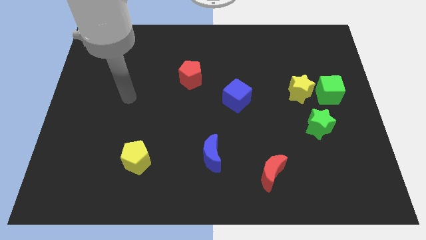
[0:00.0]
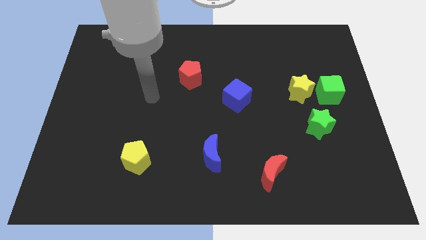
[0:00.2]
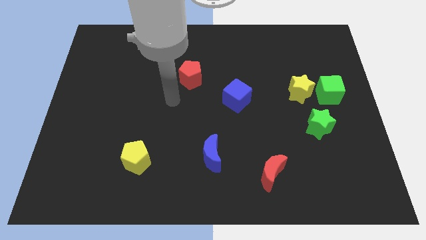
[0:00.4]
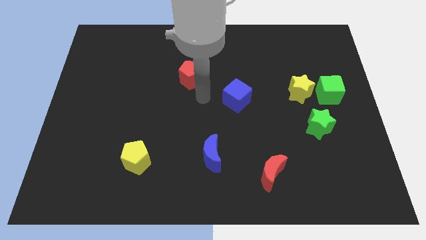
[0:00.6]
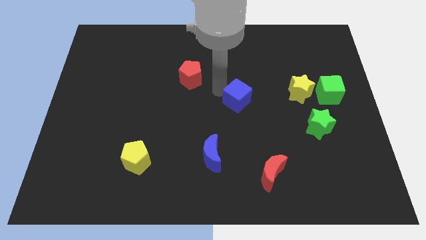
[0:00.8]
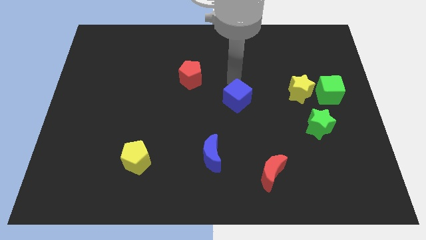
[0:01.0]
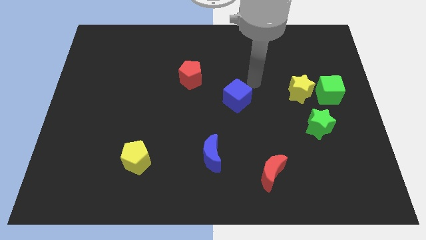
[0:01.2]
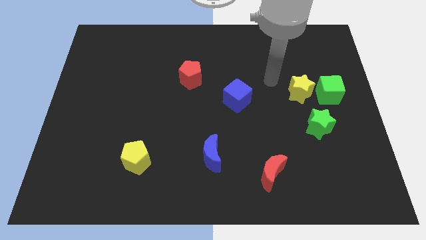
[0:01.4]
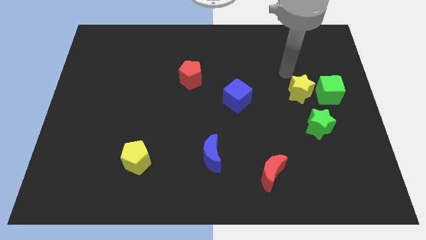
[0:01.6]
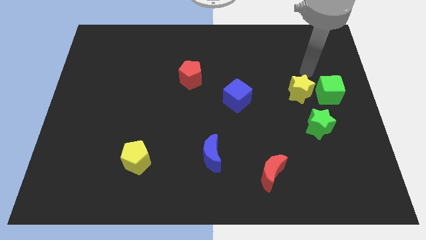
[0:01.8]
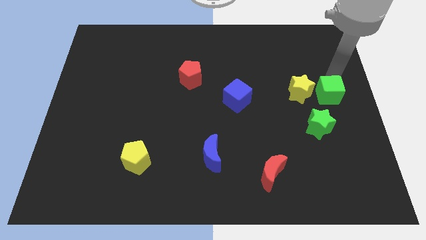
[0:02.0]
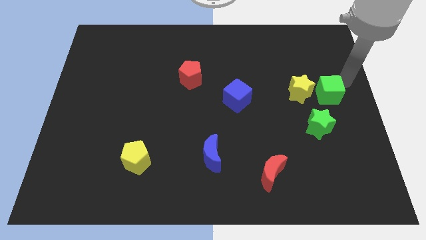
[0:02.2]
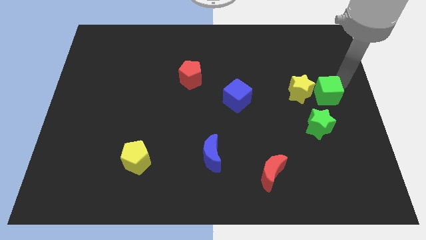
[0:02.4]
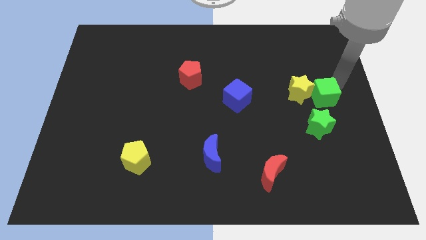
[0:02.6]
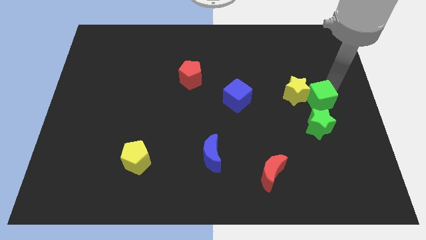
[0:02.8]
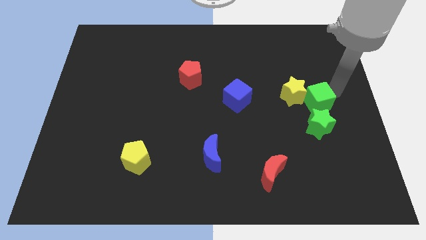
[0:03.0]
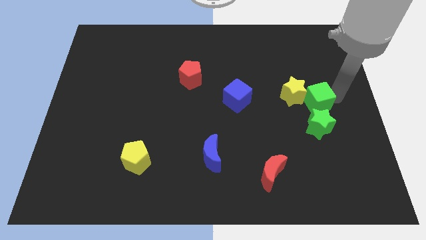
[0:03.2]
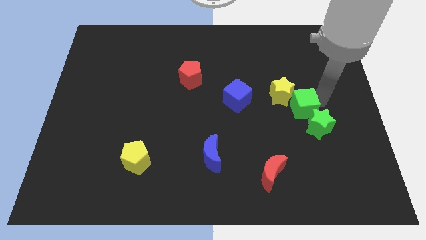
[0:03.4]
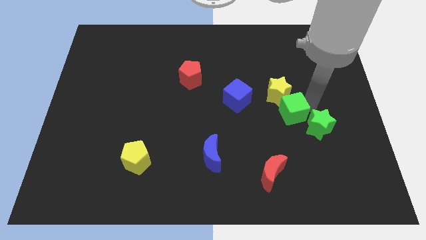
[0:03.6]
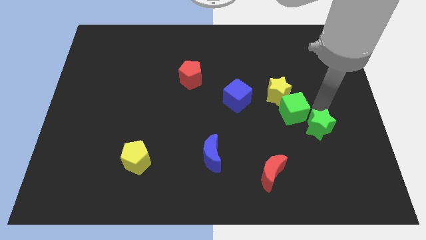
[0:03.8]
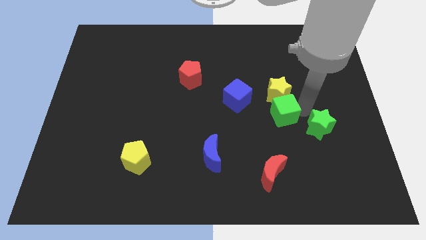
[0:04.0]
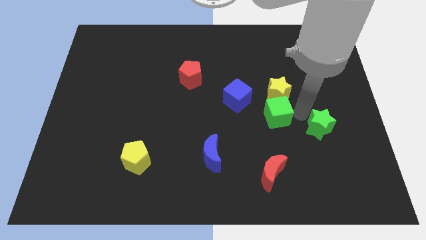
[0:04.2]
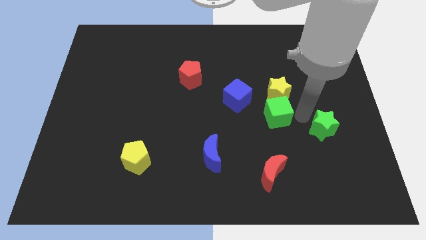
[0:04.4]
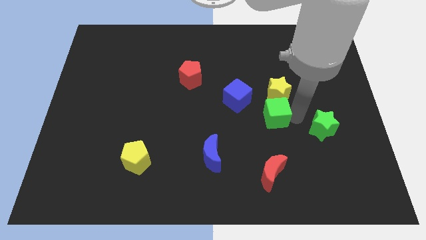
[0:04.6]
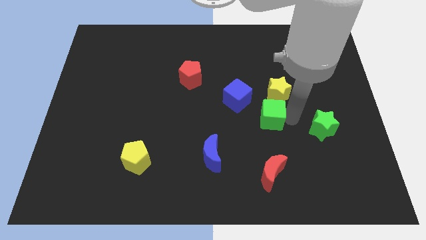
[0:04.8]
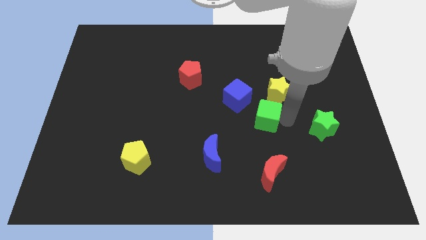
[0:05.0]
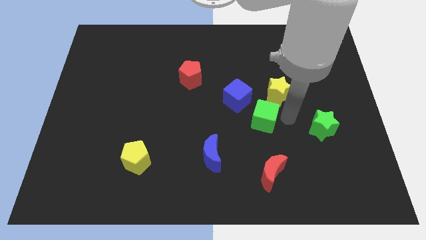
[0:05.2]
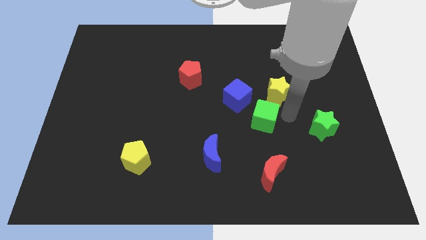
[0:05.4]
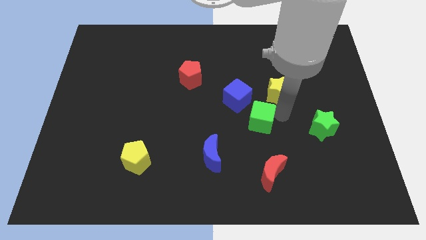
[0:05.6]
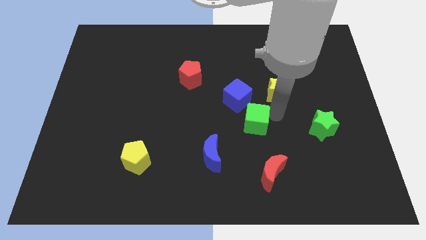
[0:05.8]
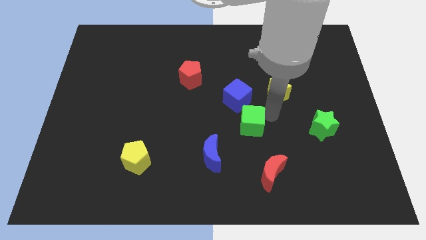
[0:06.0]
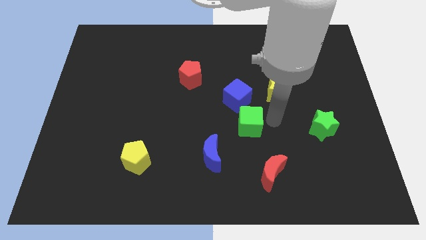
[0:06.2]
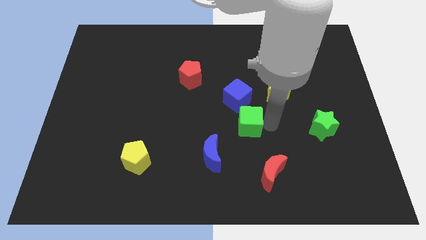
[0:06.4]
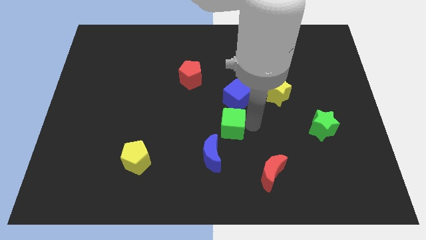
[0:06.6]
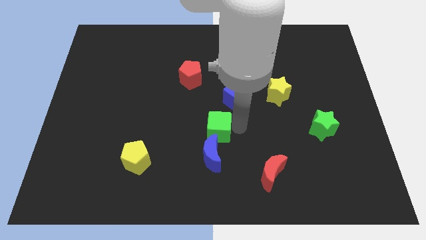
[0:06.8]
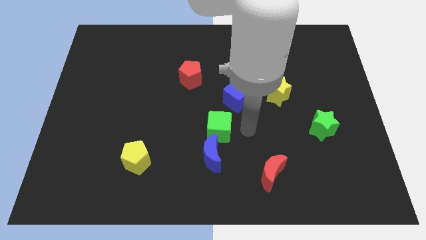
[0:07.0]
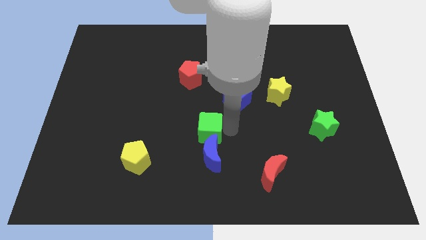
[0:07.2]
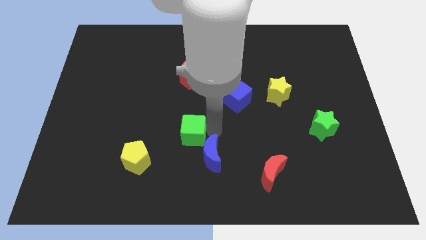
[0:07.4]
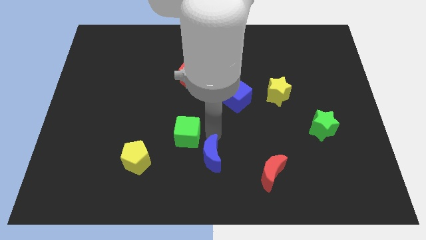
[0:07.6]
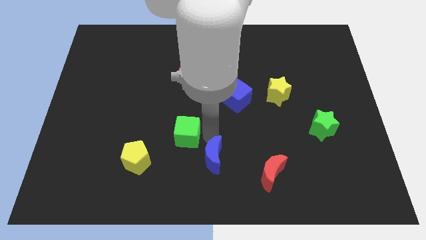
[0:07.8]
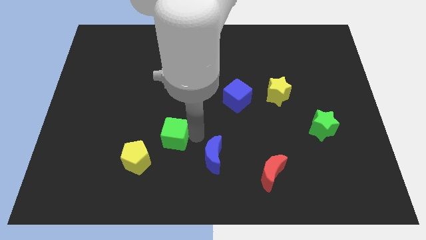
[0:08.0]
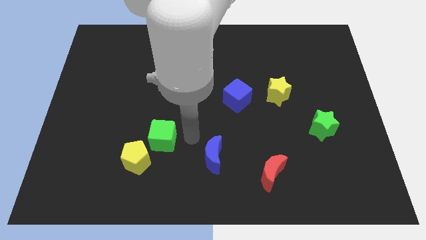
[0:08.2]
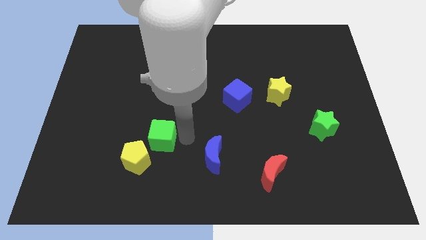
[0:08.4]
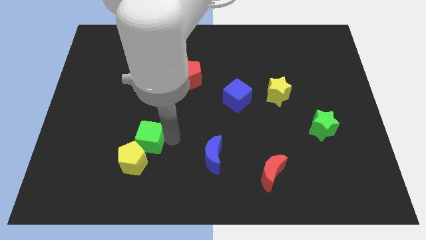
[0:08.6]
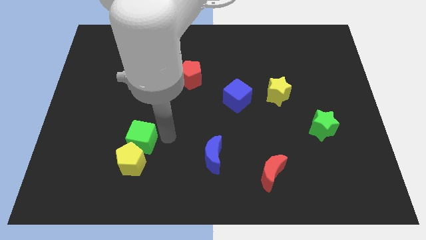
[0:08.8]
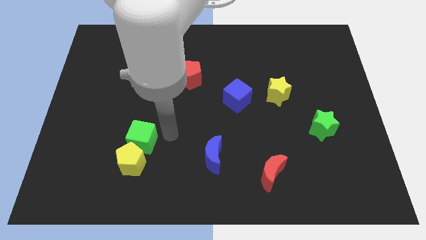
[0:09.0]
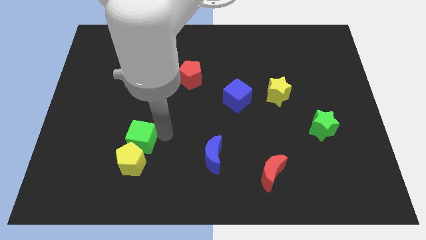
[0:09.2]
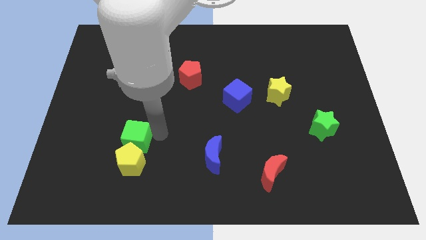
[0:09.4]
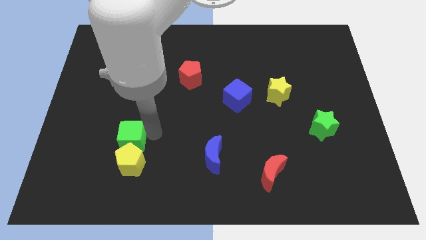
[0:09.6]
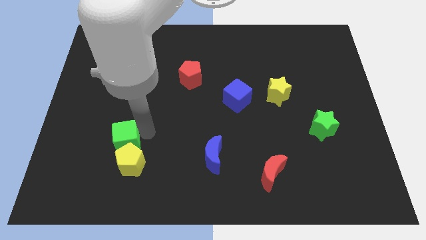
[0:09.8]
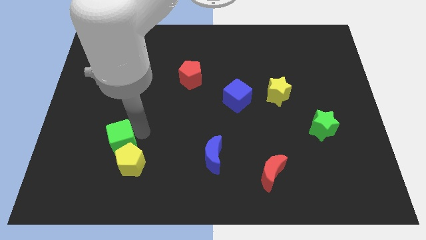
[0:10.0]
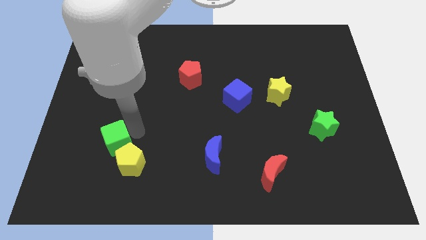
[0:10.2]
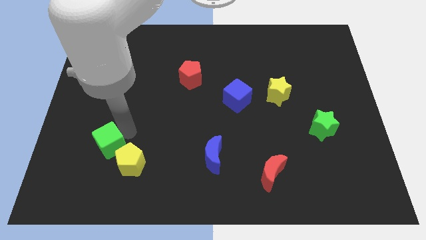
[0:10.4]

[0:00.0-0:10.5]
move the green cube left of the yellow pentagon

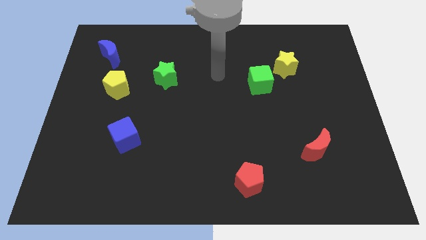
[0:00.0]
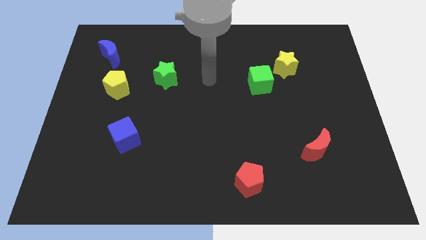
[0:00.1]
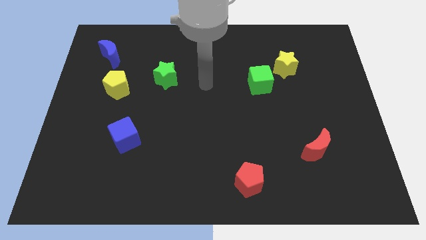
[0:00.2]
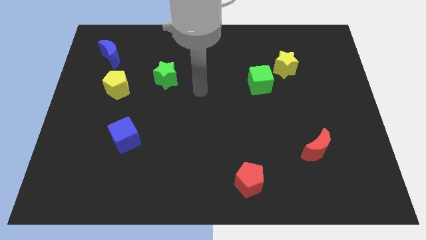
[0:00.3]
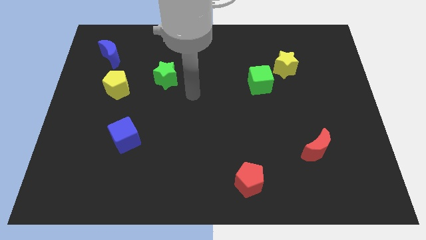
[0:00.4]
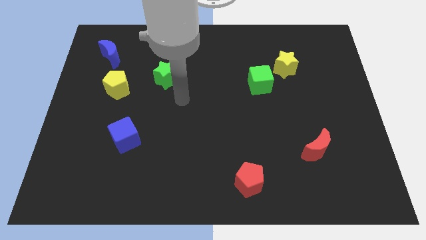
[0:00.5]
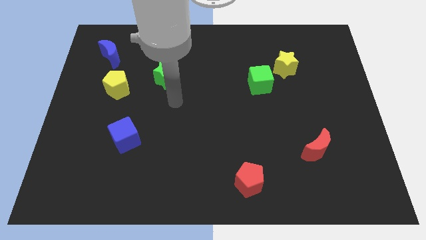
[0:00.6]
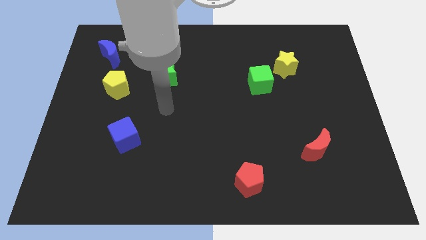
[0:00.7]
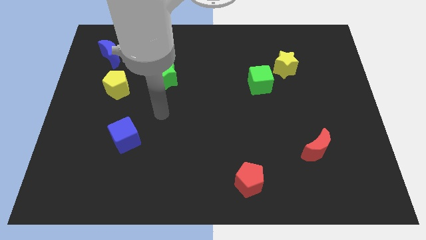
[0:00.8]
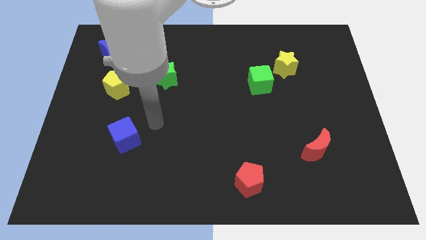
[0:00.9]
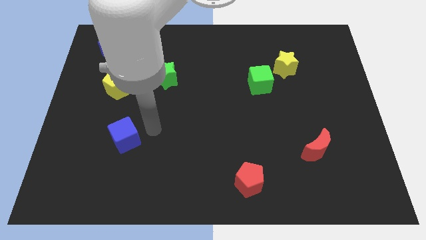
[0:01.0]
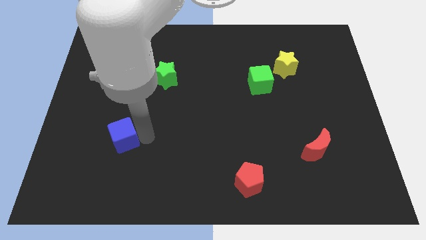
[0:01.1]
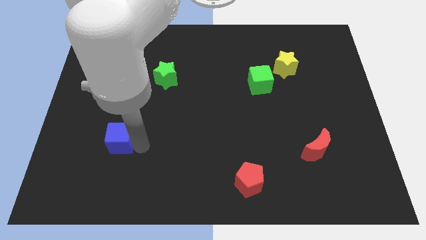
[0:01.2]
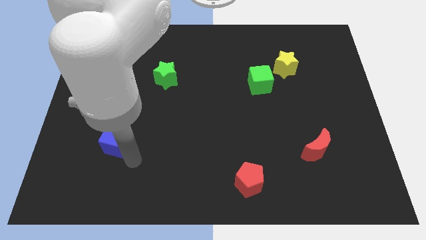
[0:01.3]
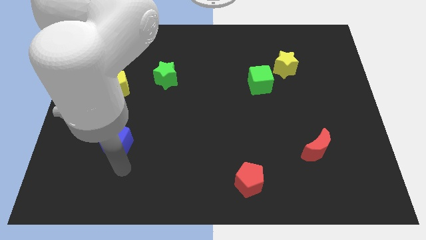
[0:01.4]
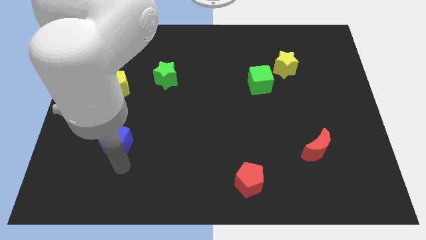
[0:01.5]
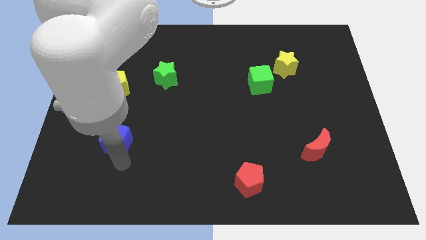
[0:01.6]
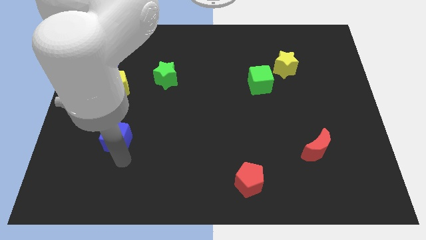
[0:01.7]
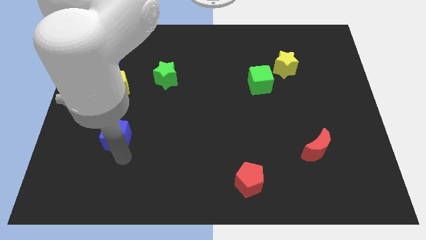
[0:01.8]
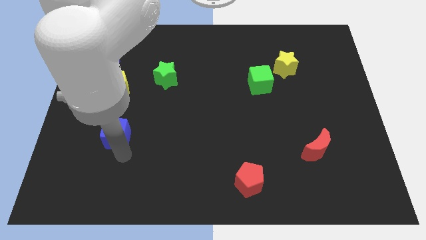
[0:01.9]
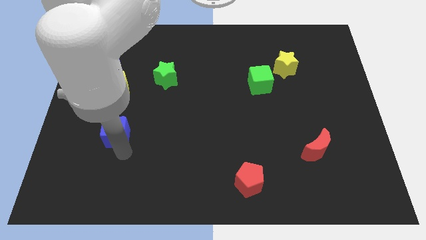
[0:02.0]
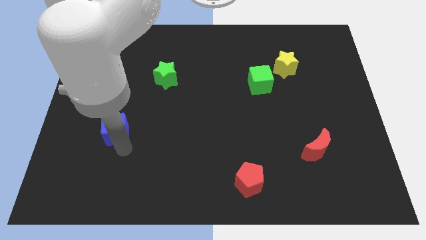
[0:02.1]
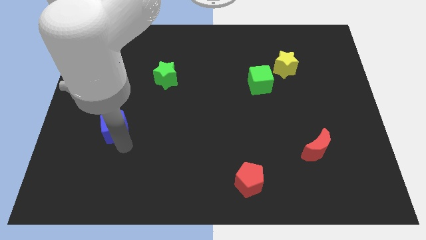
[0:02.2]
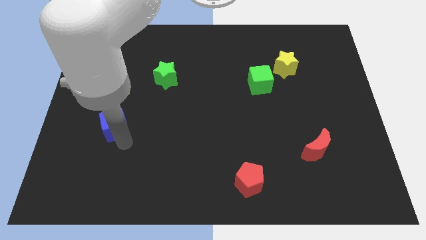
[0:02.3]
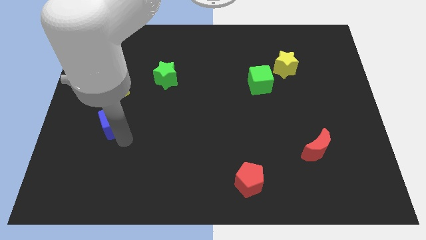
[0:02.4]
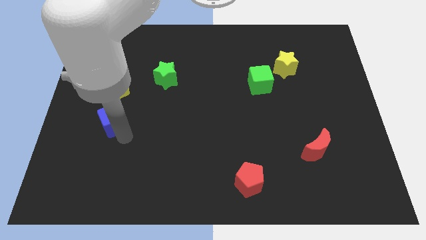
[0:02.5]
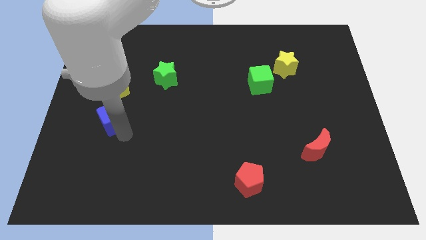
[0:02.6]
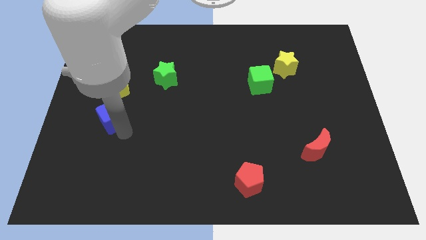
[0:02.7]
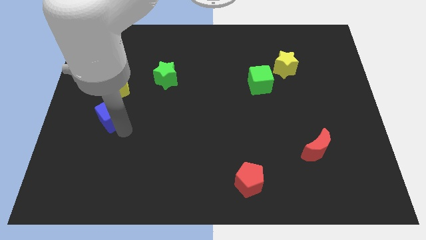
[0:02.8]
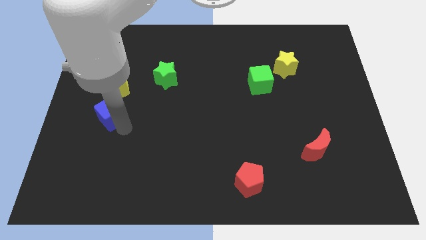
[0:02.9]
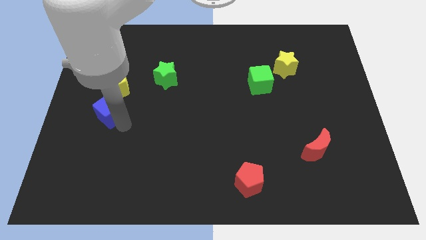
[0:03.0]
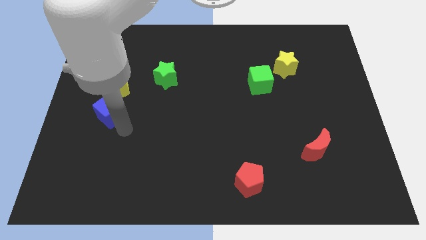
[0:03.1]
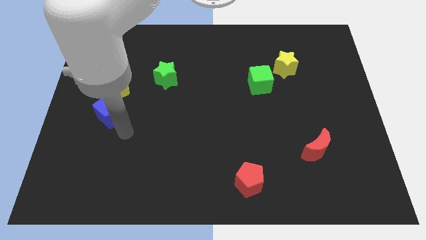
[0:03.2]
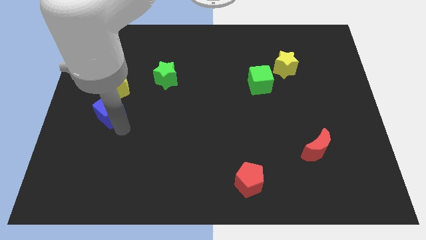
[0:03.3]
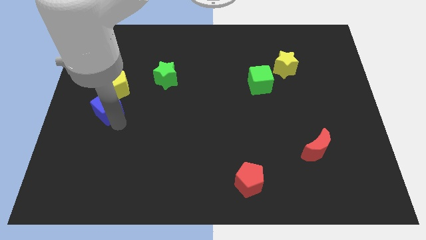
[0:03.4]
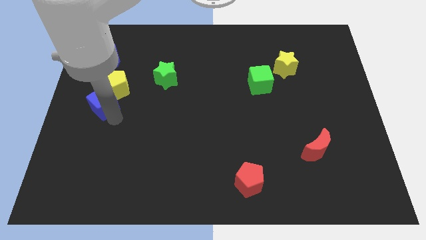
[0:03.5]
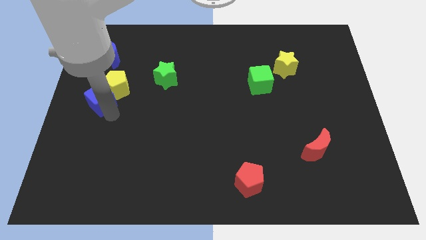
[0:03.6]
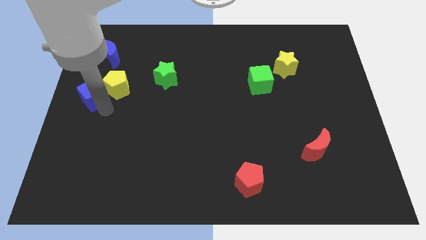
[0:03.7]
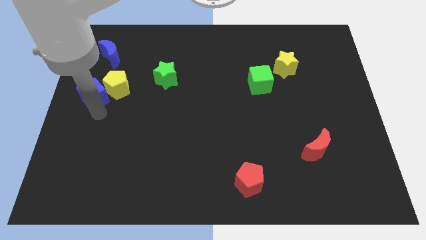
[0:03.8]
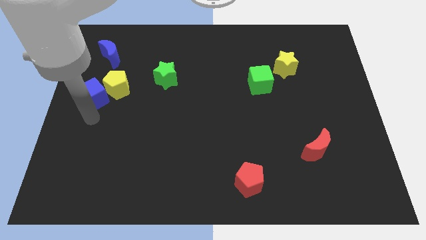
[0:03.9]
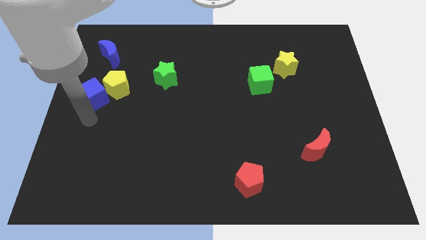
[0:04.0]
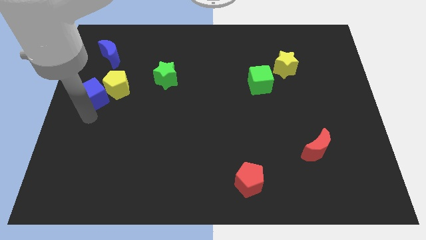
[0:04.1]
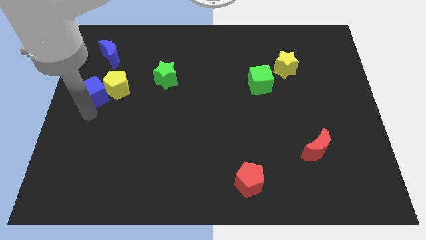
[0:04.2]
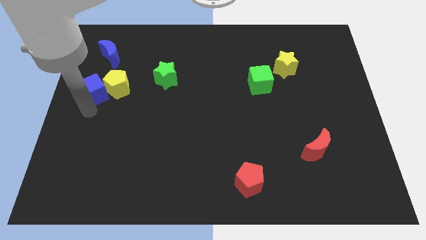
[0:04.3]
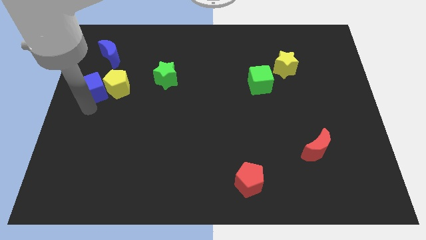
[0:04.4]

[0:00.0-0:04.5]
push the blue cube to the top left side of the yellow pentagon
